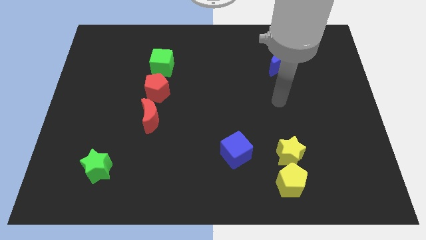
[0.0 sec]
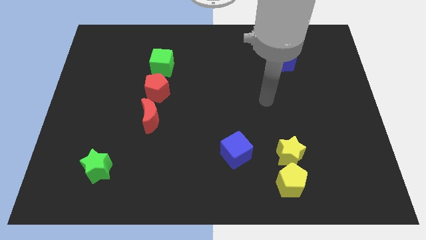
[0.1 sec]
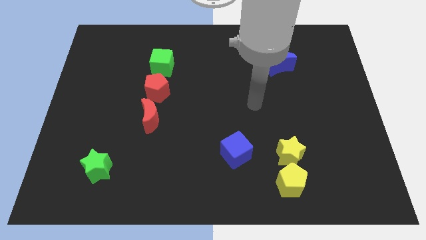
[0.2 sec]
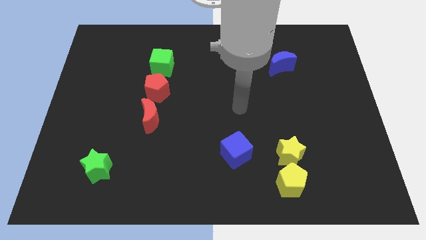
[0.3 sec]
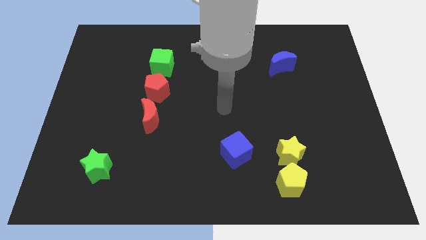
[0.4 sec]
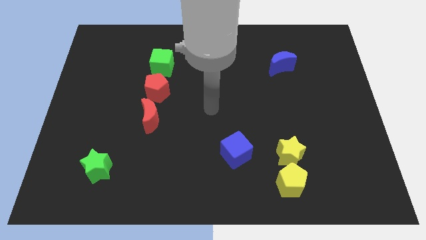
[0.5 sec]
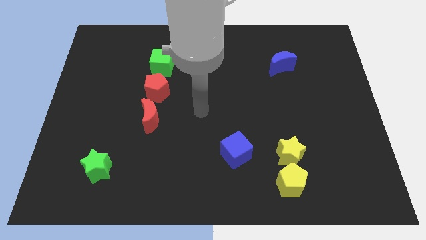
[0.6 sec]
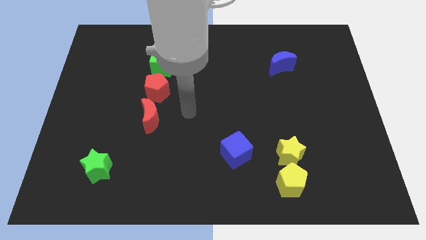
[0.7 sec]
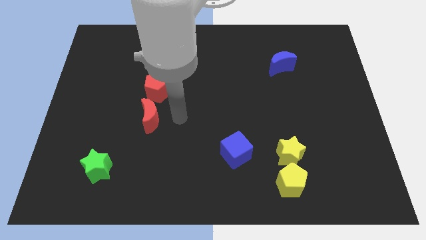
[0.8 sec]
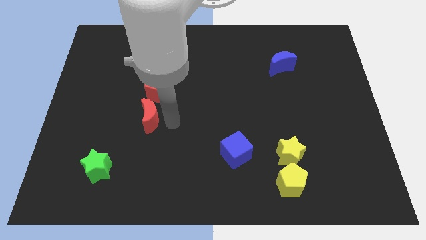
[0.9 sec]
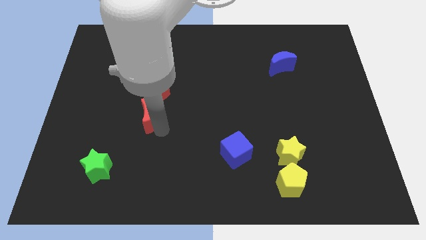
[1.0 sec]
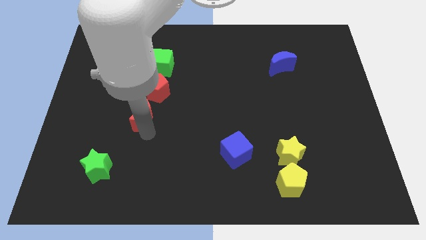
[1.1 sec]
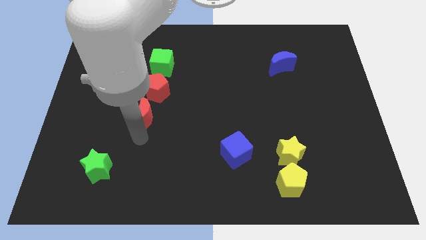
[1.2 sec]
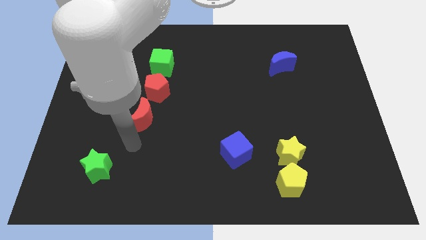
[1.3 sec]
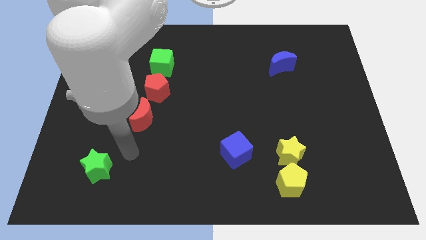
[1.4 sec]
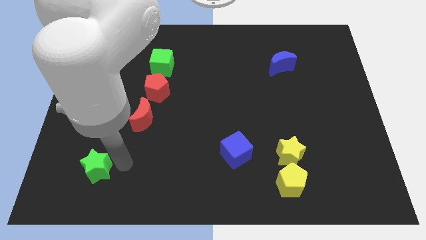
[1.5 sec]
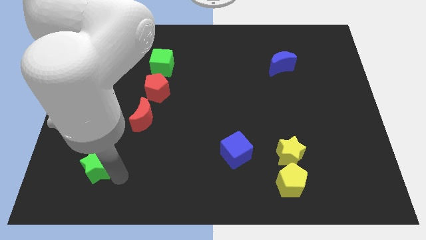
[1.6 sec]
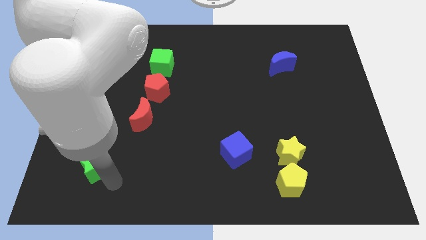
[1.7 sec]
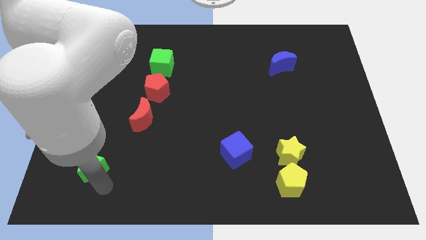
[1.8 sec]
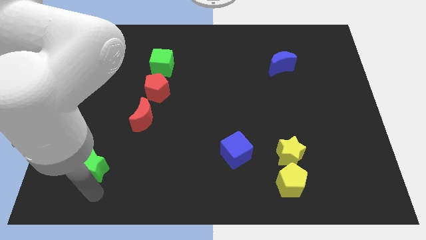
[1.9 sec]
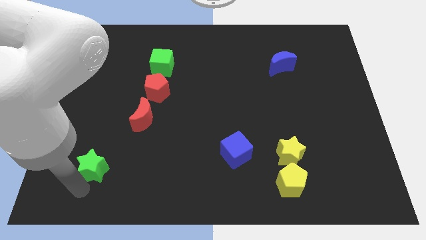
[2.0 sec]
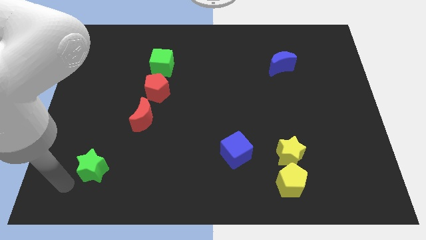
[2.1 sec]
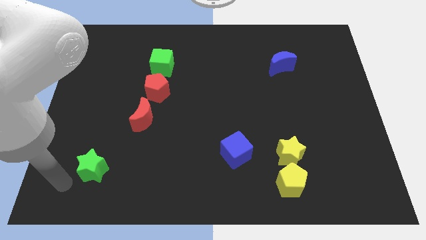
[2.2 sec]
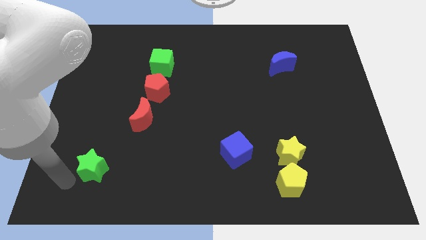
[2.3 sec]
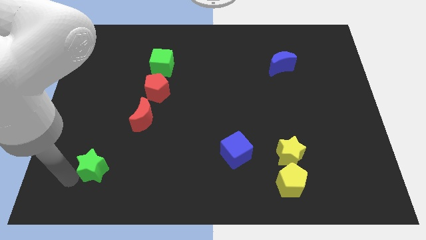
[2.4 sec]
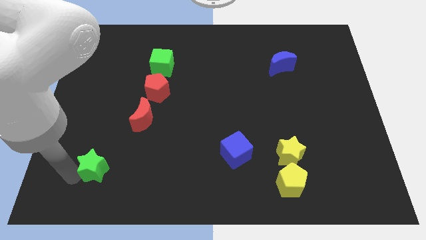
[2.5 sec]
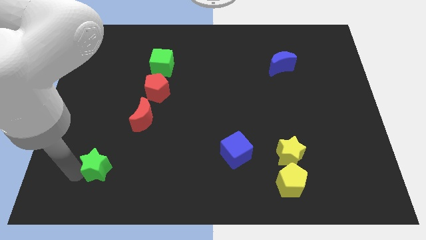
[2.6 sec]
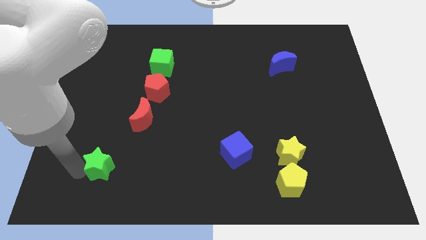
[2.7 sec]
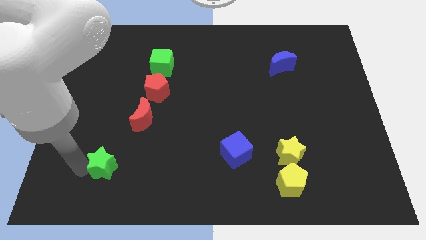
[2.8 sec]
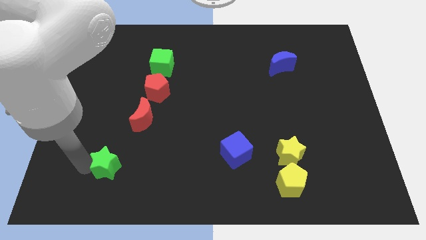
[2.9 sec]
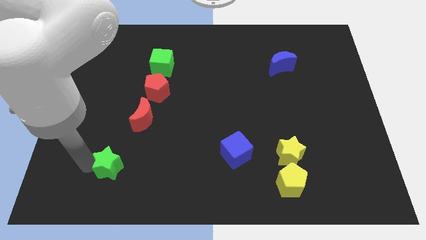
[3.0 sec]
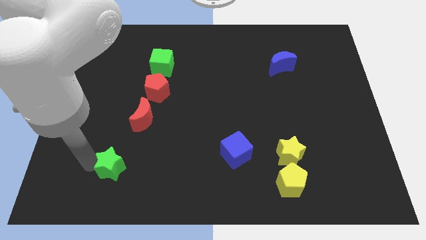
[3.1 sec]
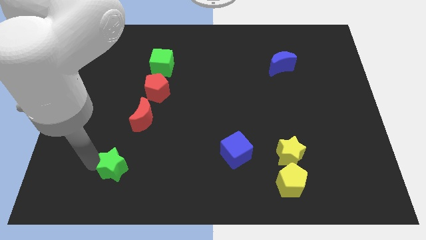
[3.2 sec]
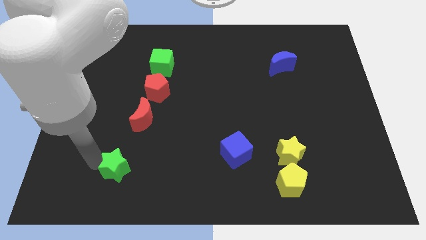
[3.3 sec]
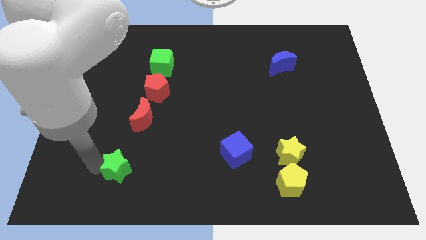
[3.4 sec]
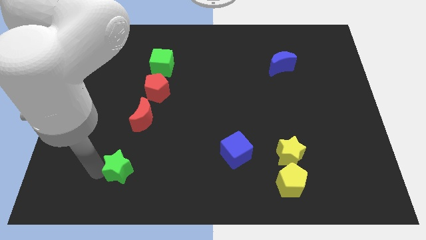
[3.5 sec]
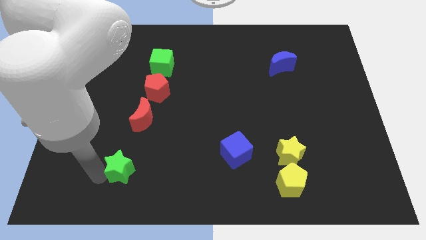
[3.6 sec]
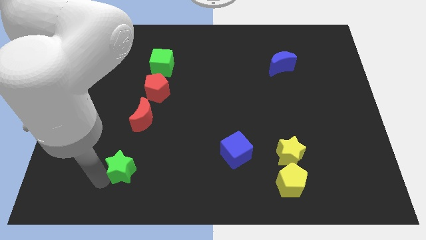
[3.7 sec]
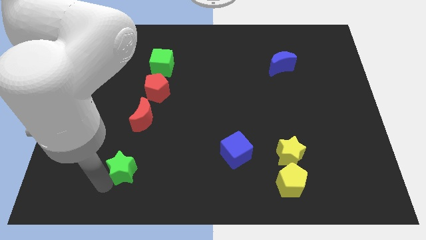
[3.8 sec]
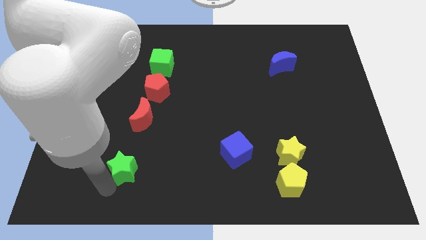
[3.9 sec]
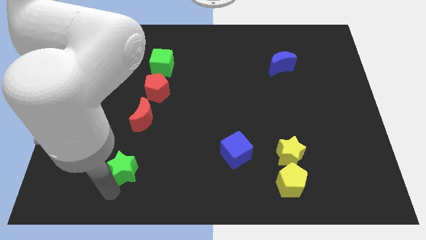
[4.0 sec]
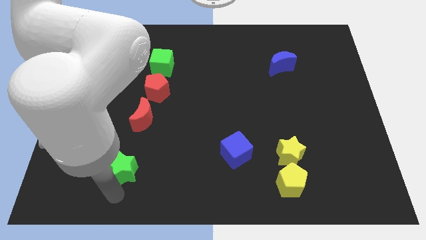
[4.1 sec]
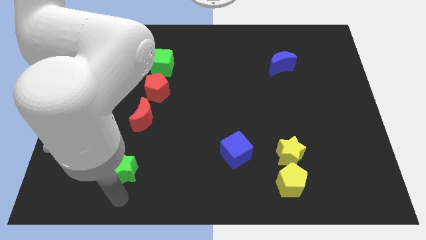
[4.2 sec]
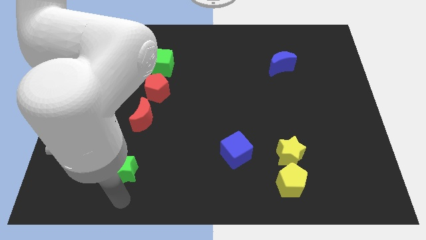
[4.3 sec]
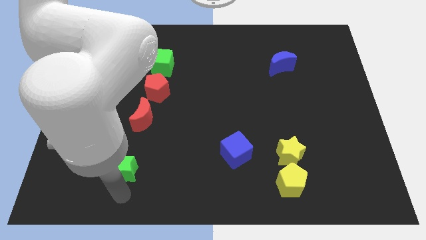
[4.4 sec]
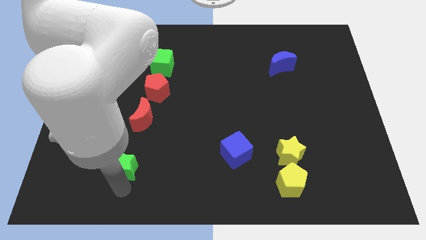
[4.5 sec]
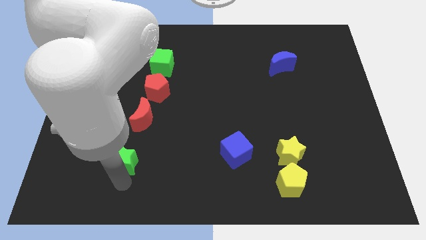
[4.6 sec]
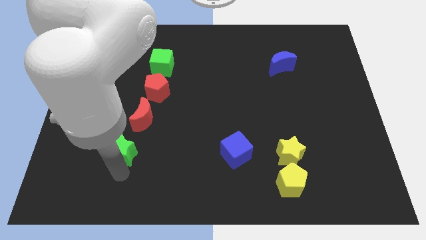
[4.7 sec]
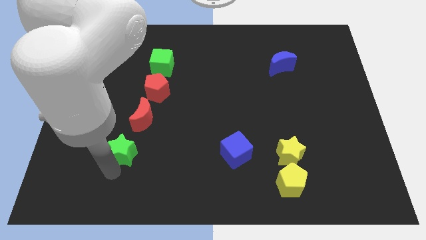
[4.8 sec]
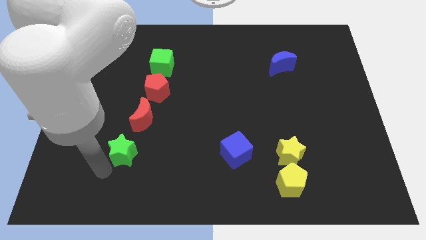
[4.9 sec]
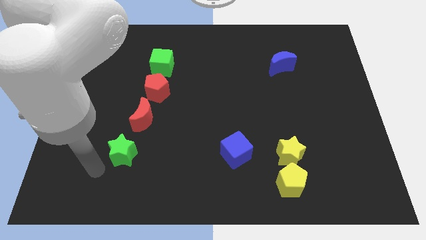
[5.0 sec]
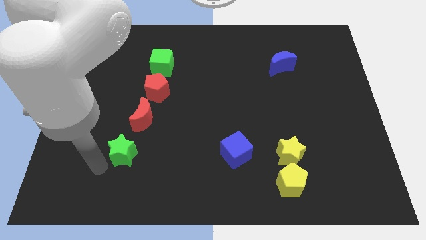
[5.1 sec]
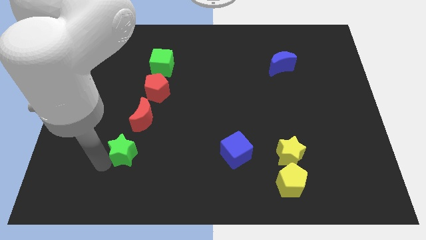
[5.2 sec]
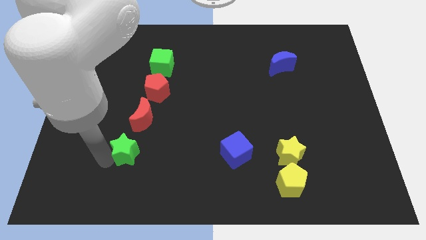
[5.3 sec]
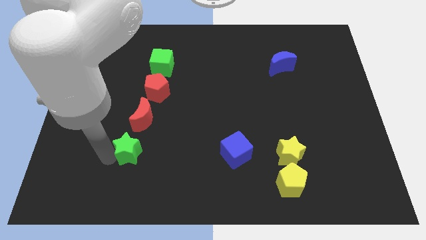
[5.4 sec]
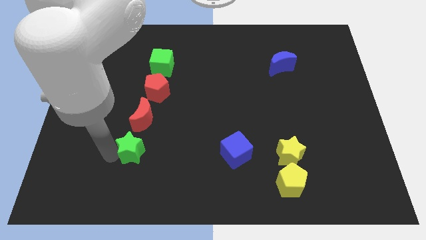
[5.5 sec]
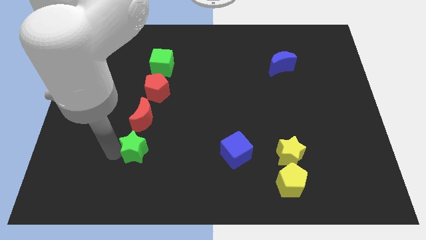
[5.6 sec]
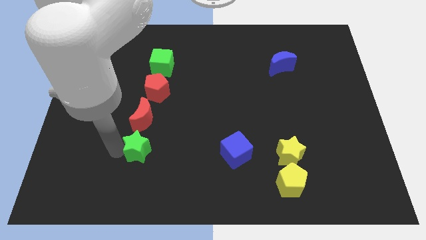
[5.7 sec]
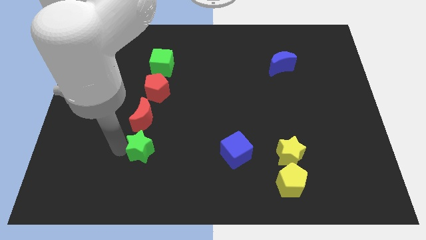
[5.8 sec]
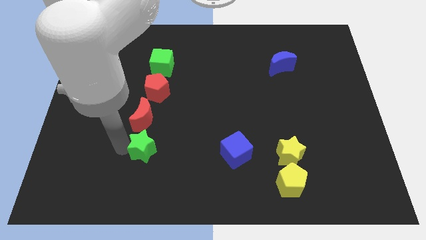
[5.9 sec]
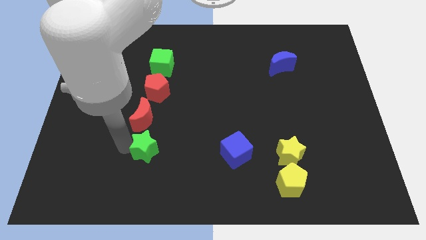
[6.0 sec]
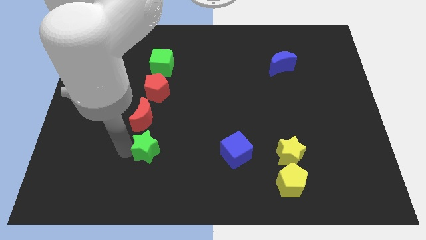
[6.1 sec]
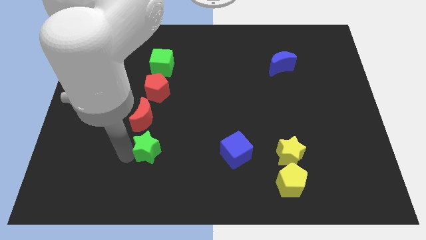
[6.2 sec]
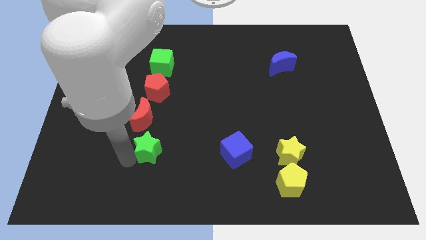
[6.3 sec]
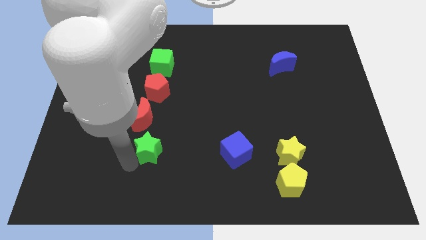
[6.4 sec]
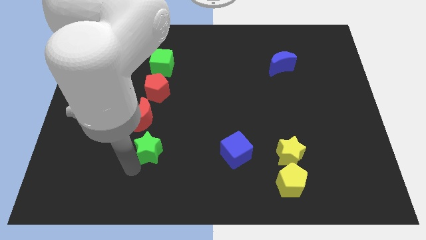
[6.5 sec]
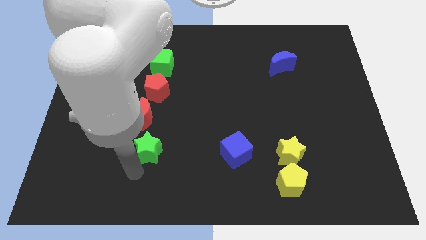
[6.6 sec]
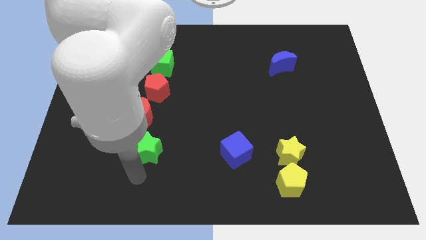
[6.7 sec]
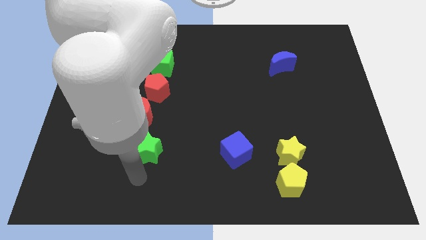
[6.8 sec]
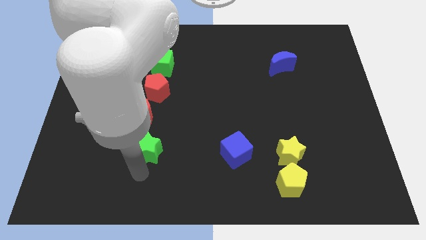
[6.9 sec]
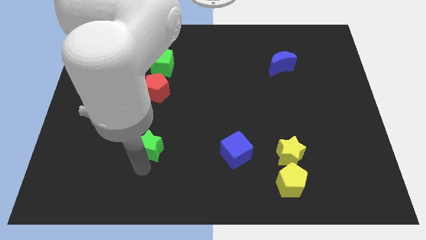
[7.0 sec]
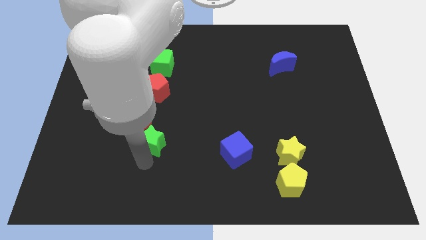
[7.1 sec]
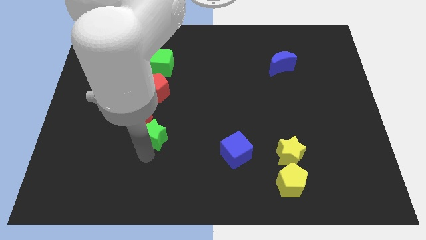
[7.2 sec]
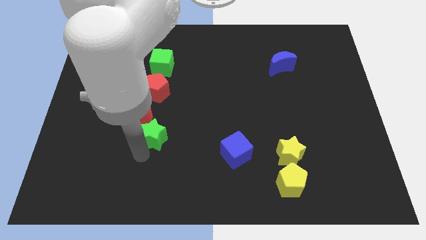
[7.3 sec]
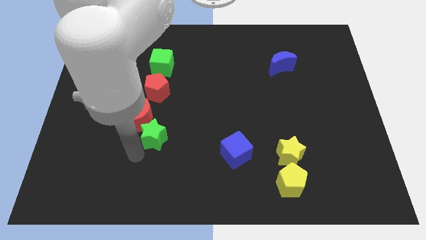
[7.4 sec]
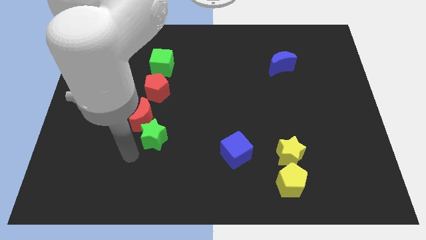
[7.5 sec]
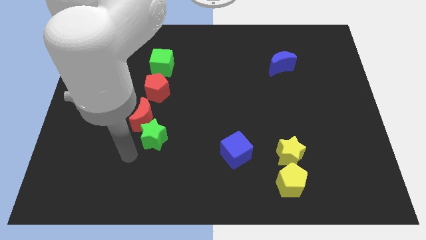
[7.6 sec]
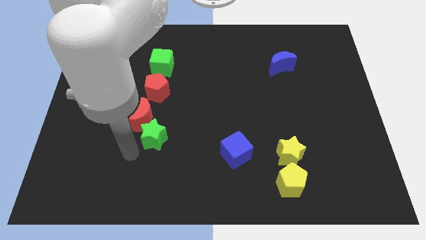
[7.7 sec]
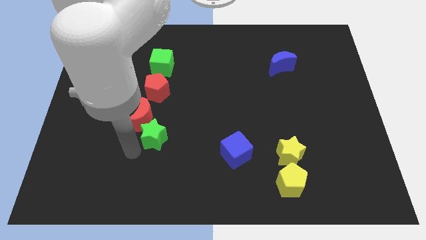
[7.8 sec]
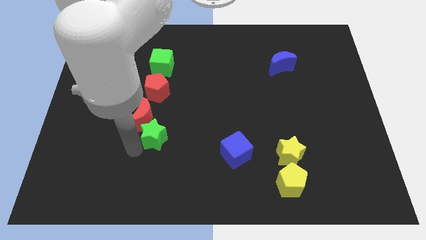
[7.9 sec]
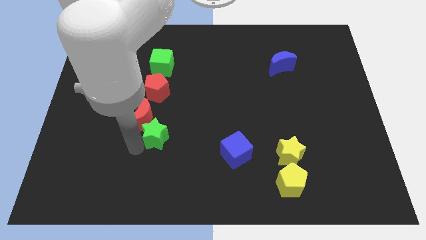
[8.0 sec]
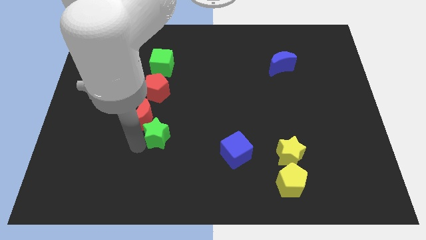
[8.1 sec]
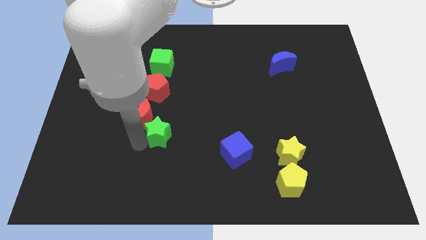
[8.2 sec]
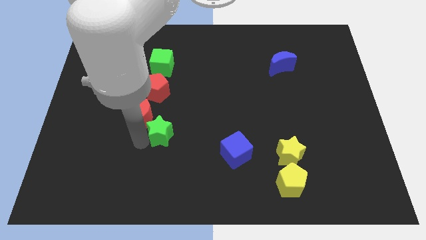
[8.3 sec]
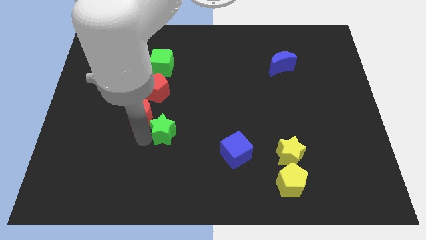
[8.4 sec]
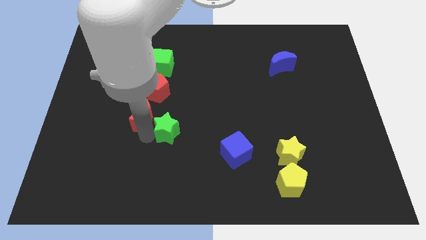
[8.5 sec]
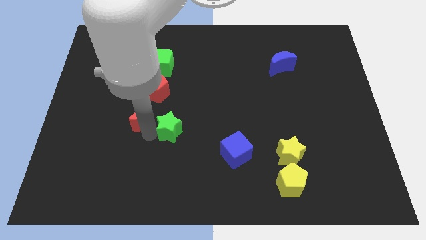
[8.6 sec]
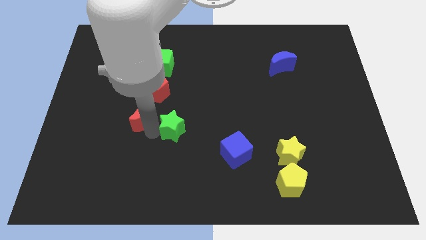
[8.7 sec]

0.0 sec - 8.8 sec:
slide the green star to the middle of the board
